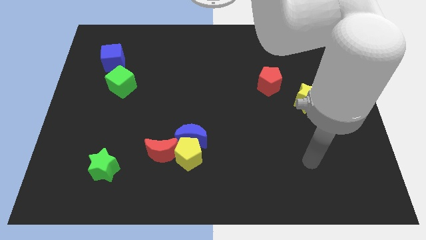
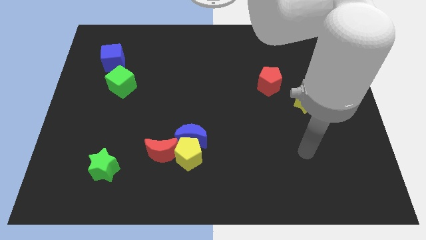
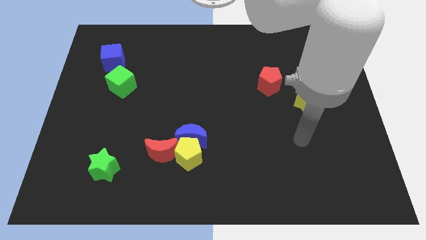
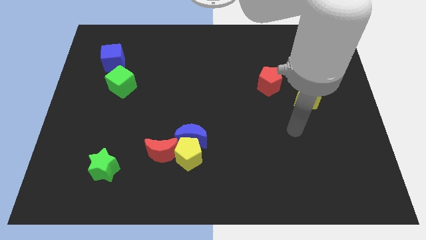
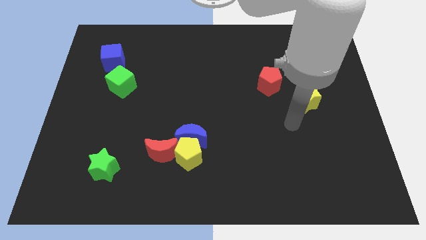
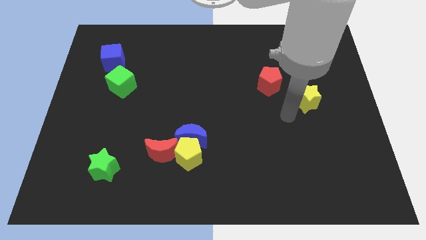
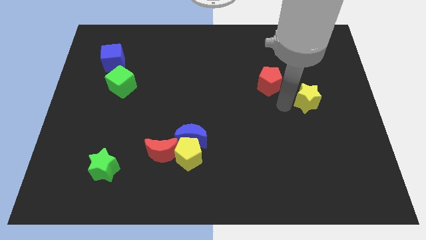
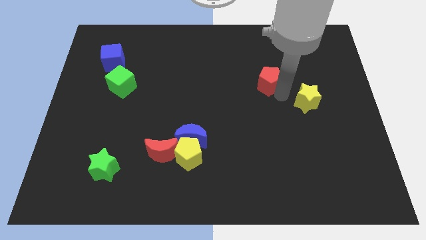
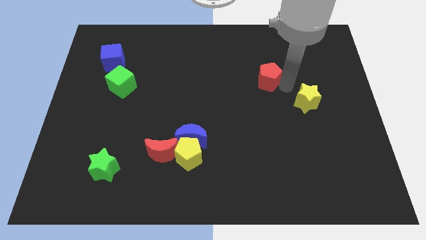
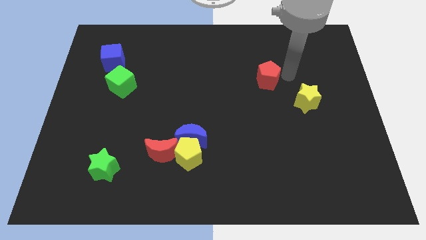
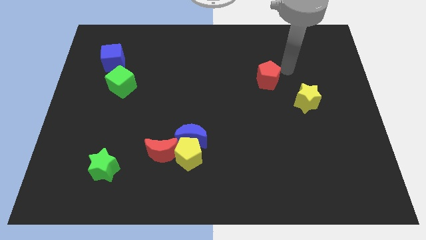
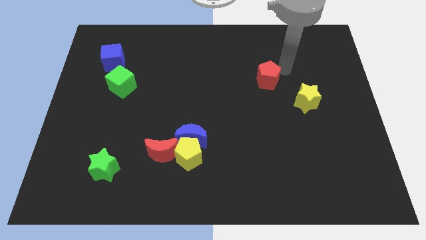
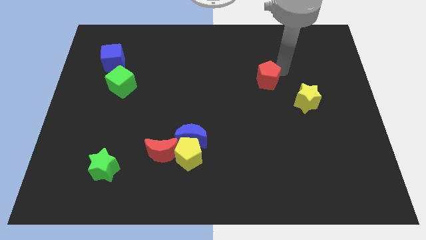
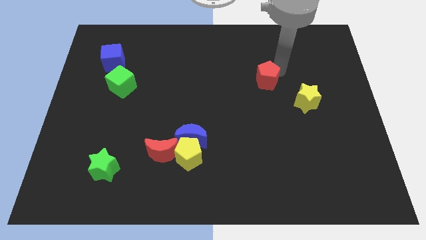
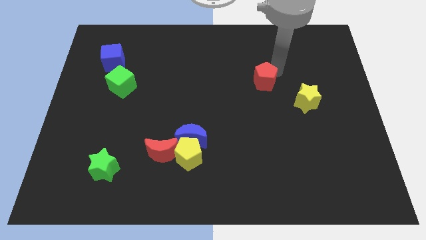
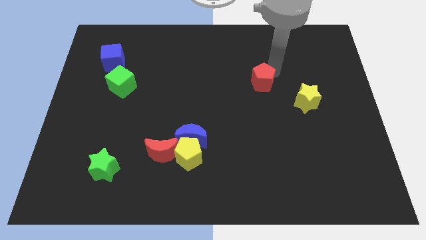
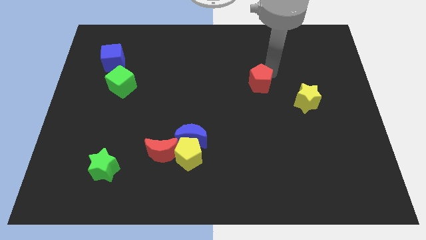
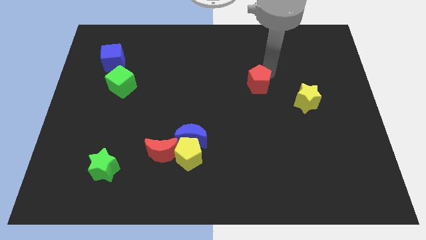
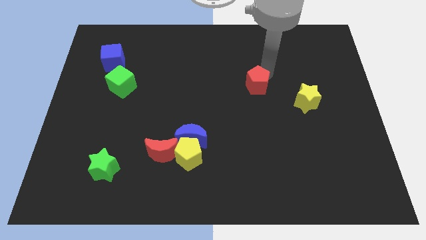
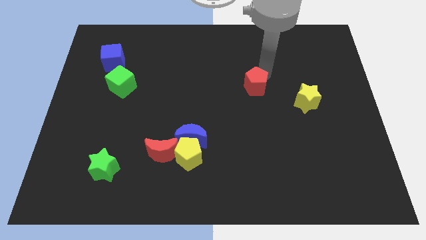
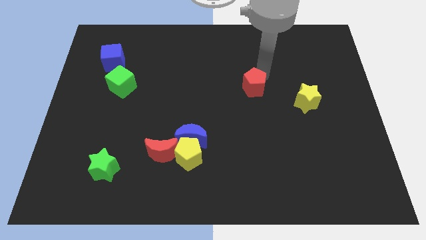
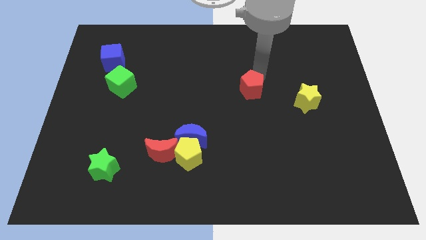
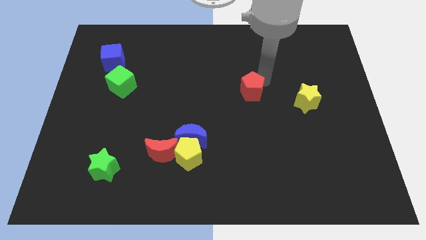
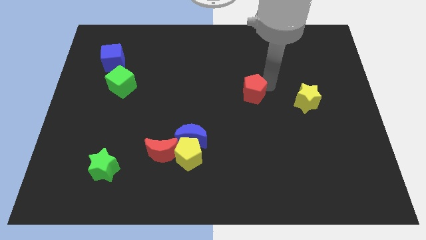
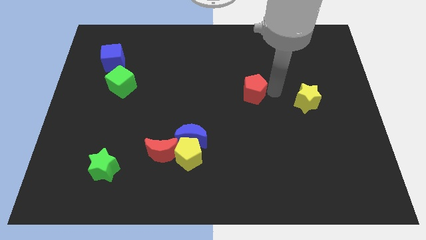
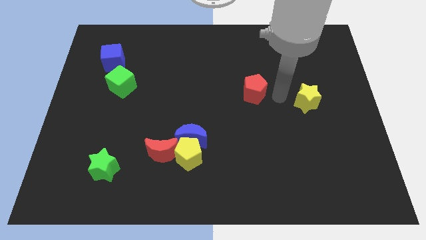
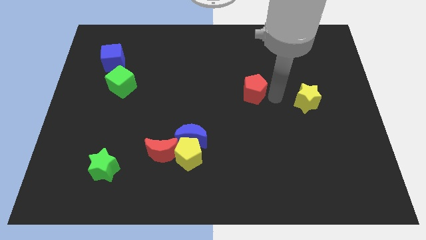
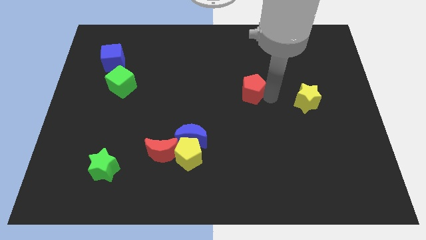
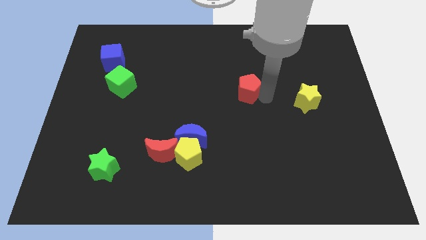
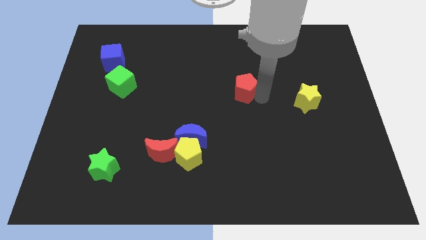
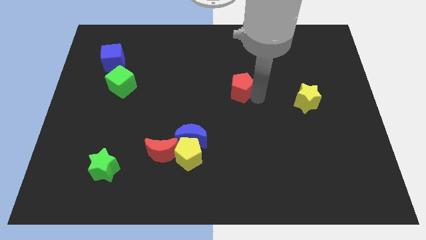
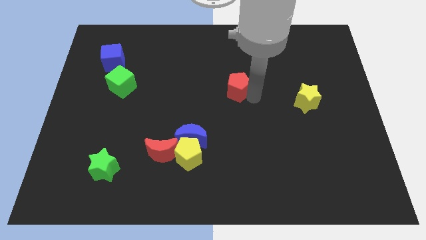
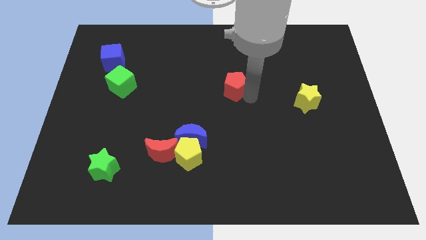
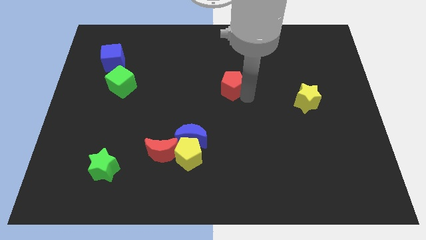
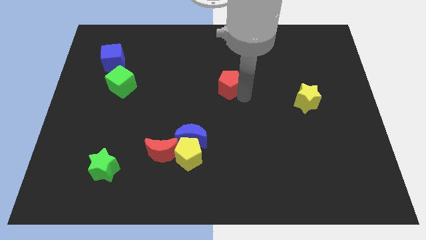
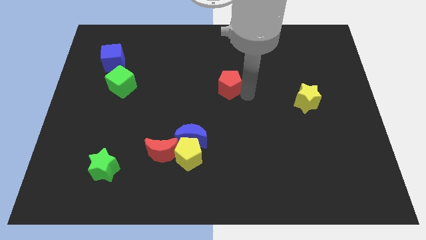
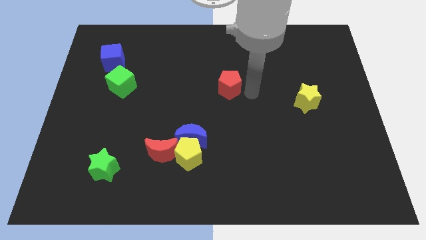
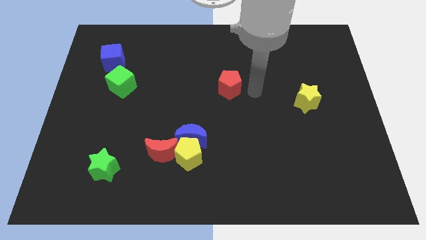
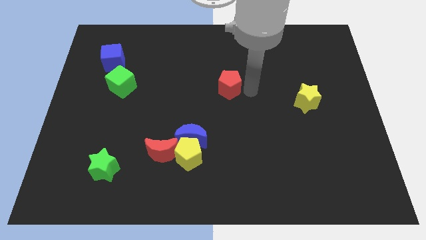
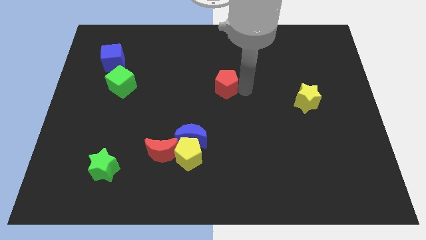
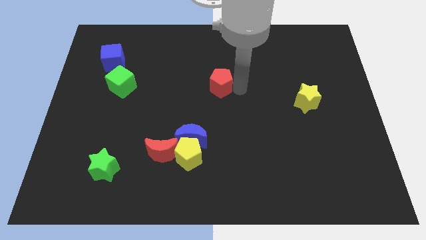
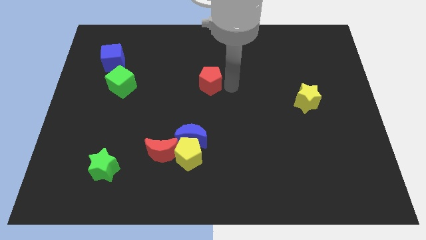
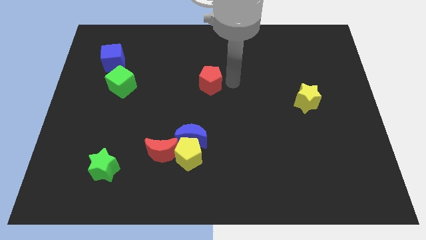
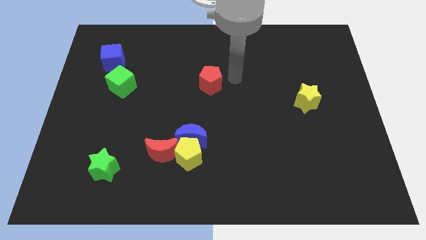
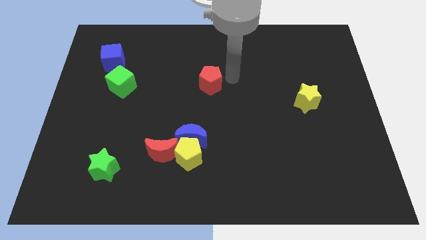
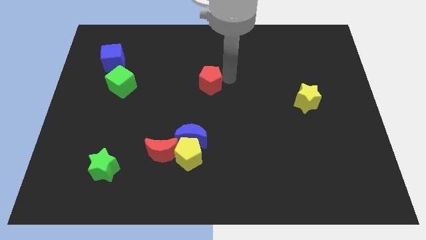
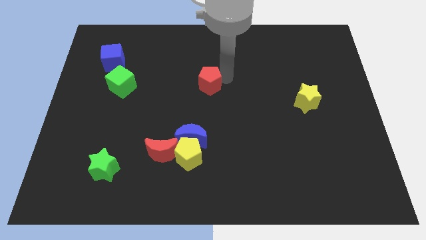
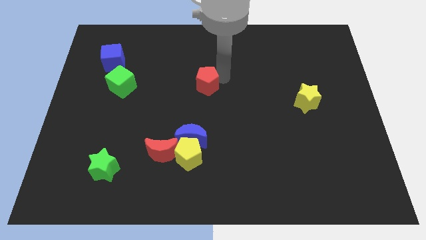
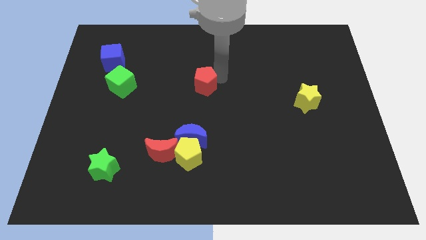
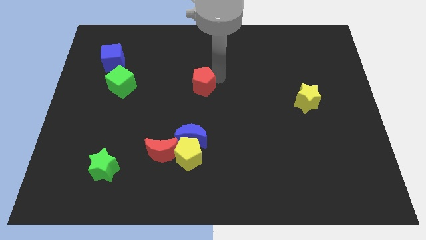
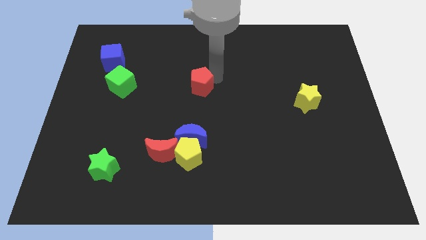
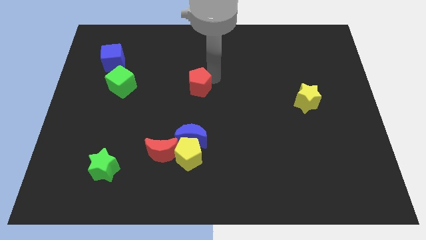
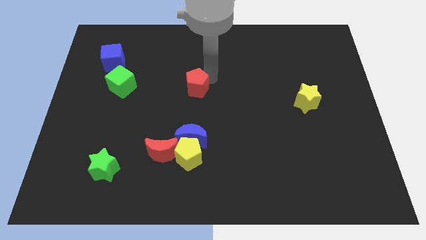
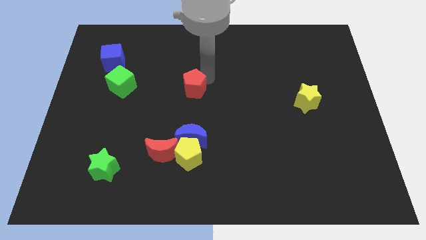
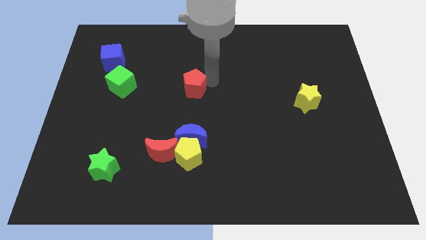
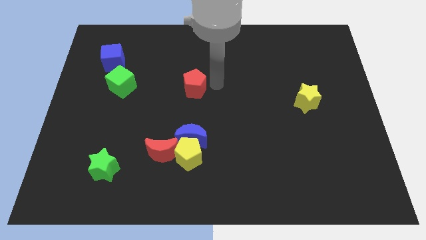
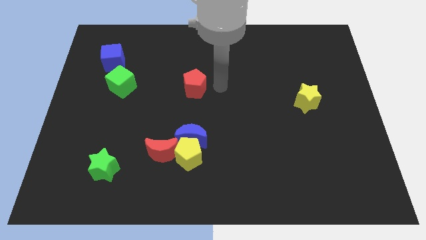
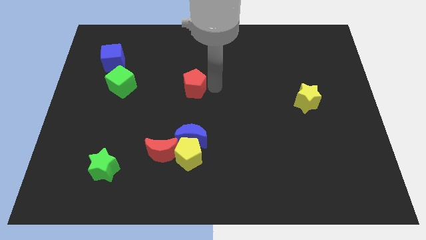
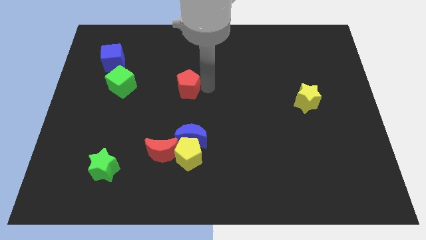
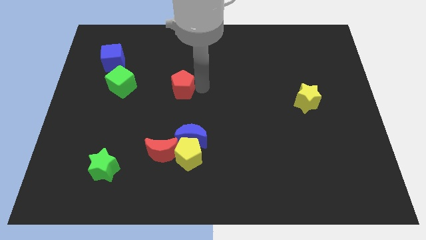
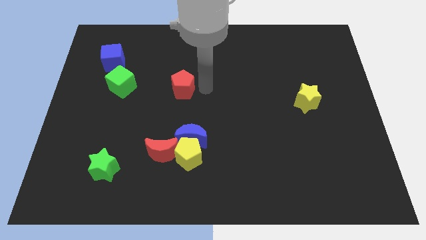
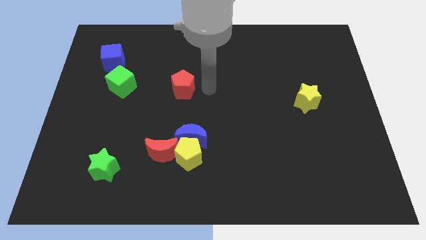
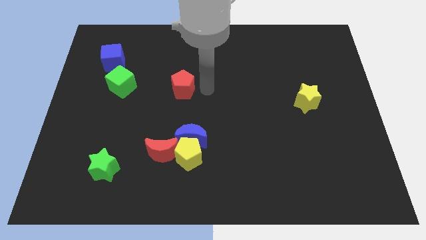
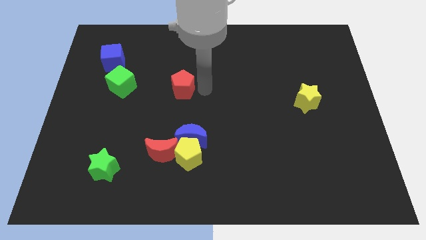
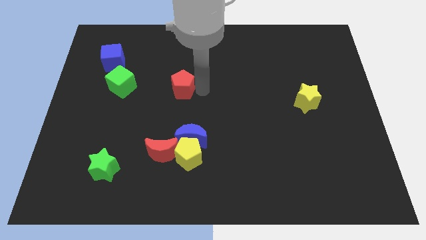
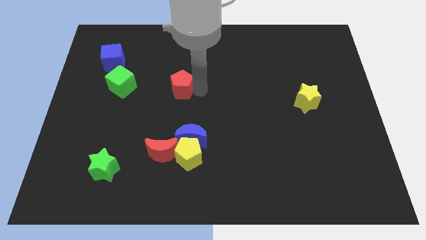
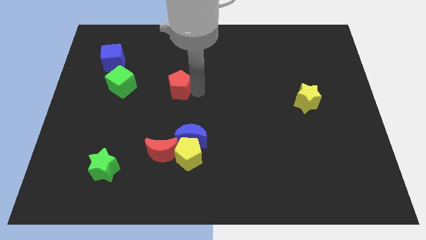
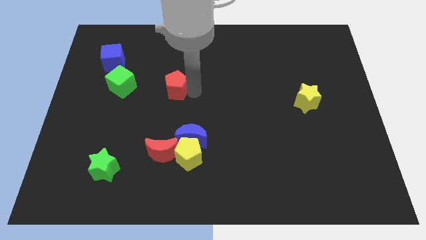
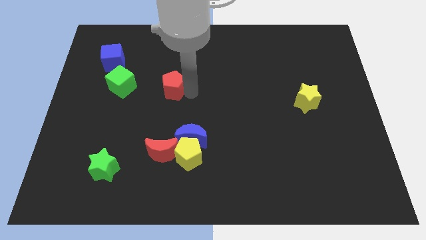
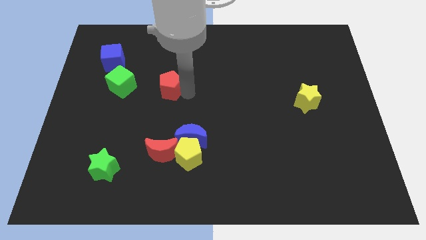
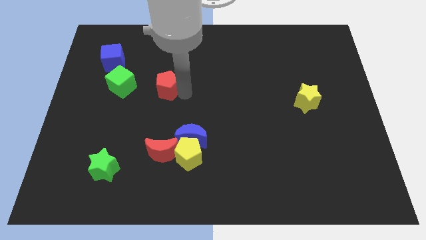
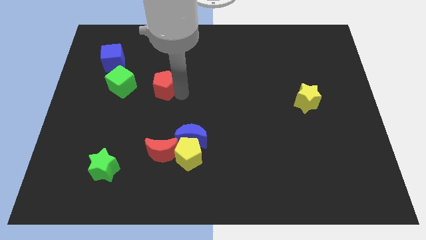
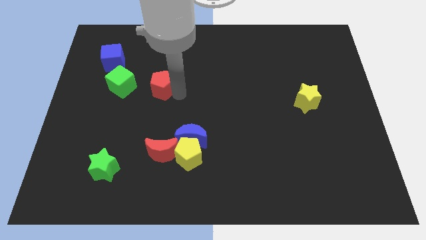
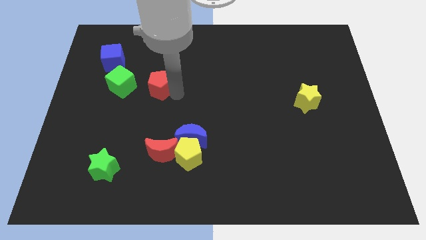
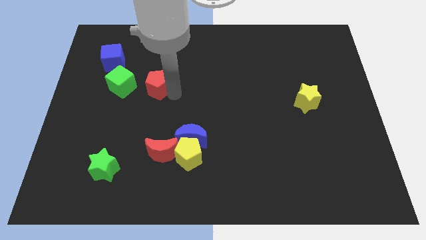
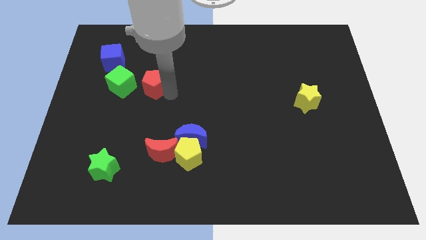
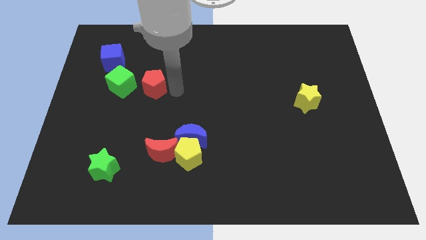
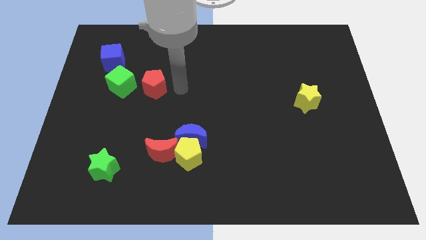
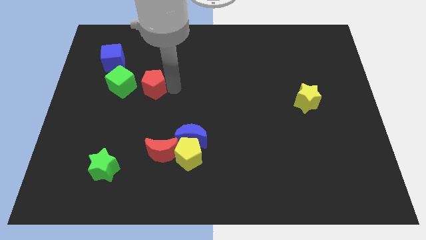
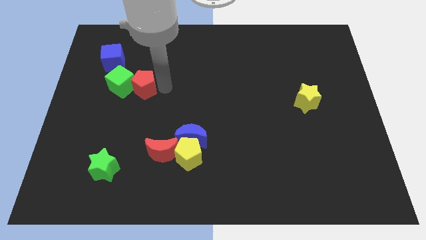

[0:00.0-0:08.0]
move the red pentagon to the green cube

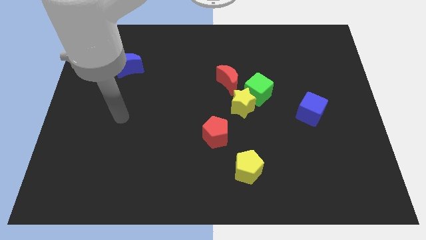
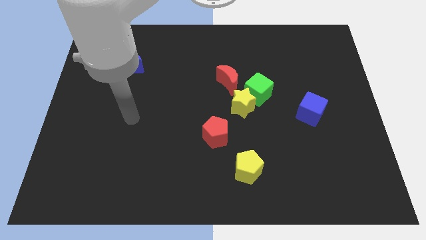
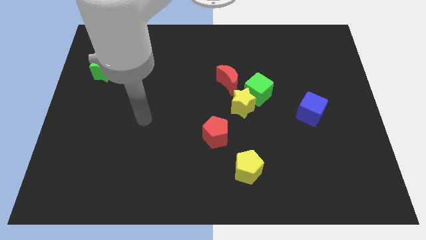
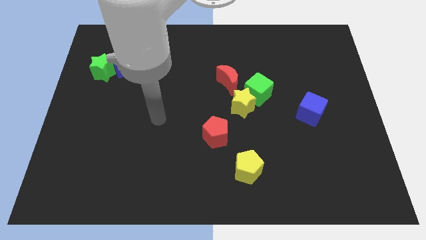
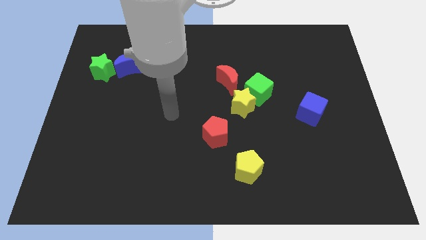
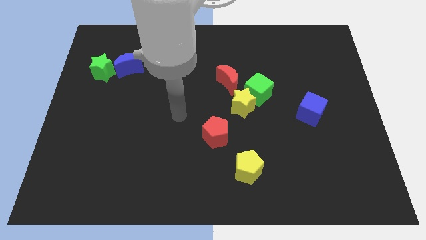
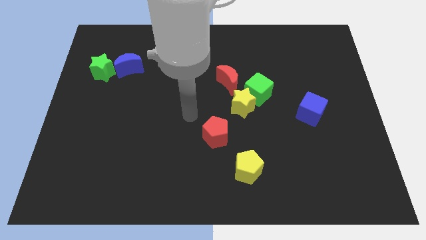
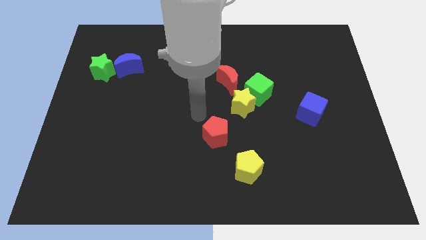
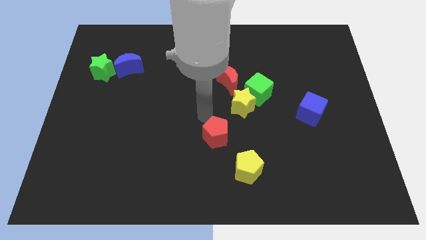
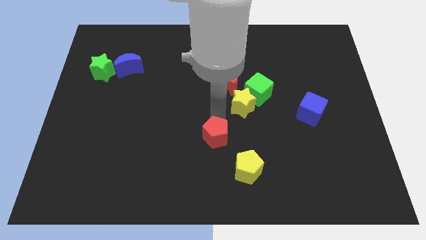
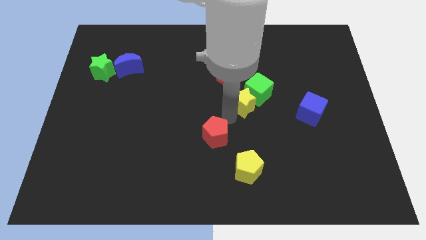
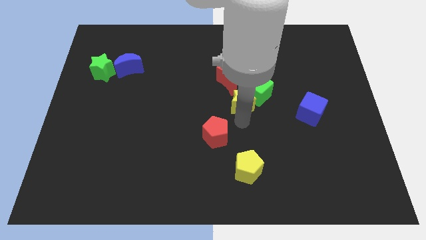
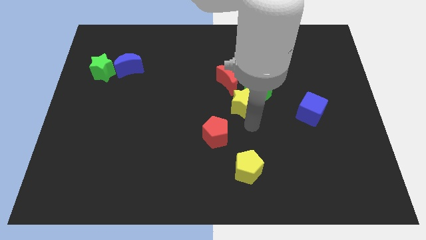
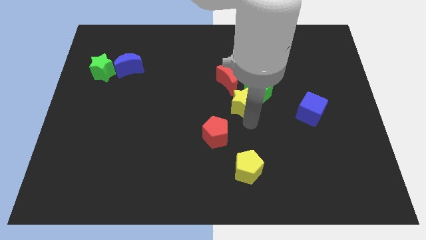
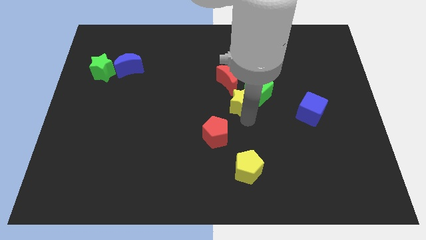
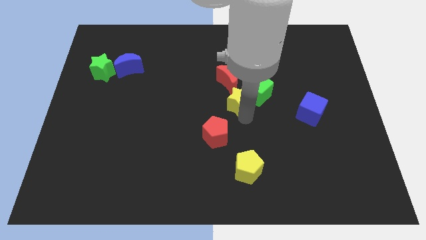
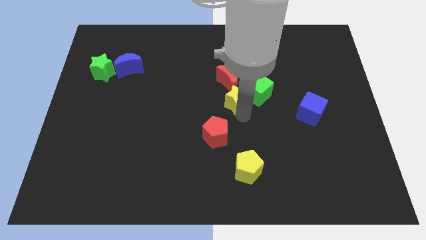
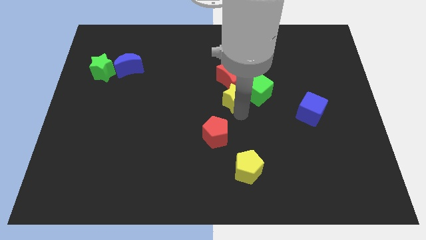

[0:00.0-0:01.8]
slide the yellow star towards the red moon
